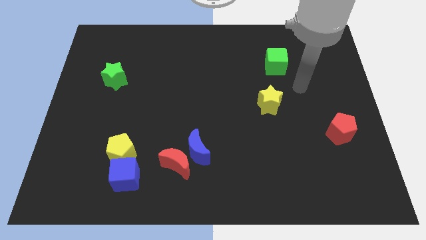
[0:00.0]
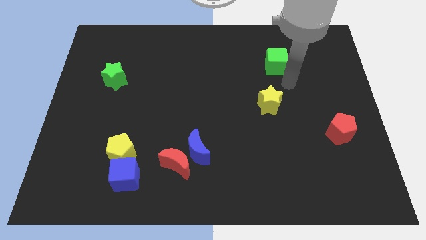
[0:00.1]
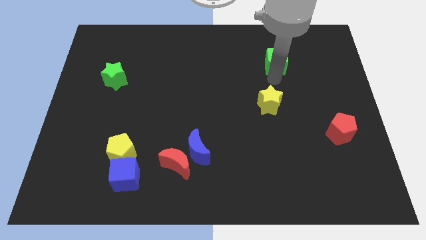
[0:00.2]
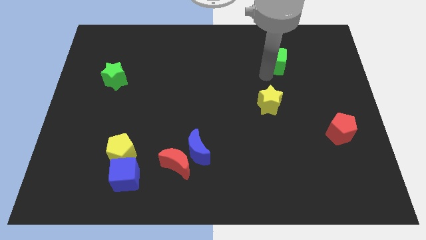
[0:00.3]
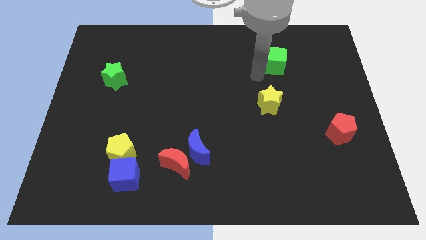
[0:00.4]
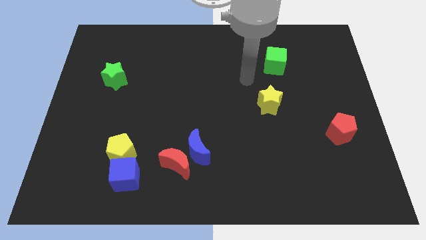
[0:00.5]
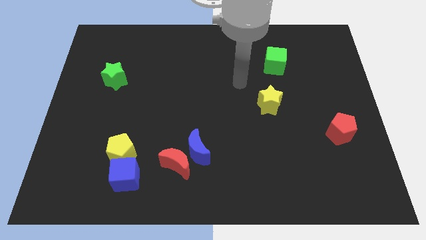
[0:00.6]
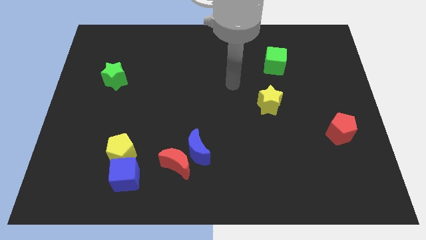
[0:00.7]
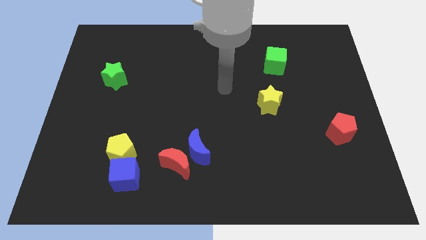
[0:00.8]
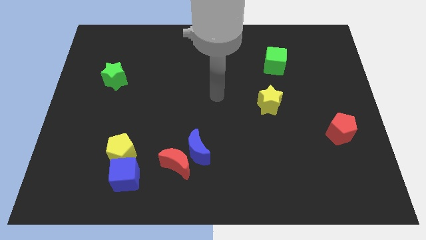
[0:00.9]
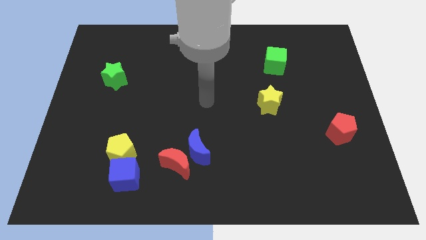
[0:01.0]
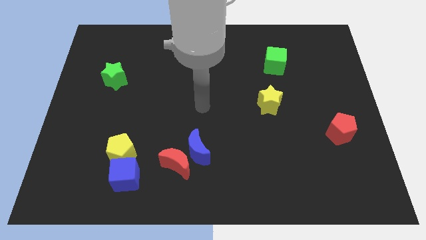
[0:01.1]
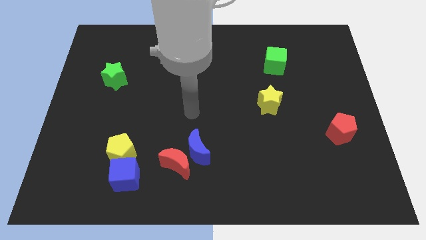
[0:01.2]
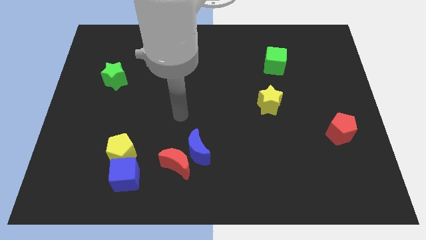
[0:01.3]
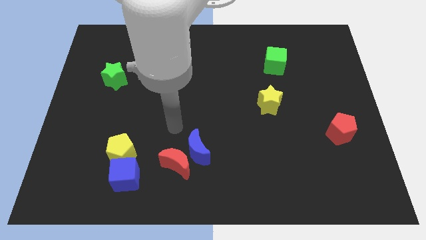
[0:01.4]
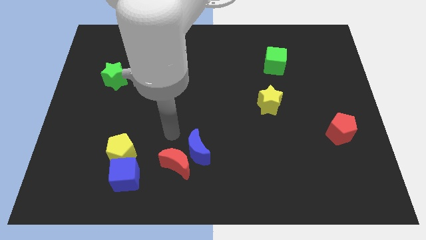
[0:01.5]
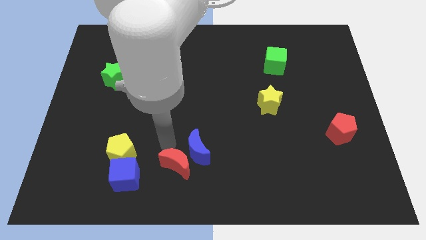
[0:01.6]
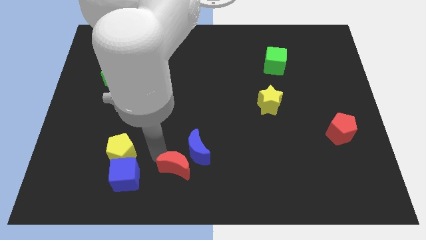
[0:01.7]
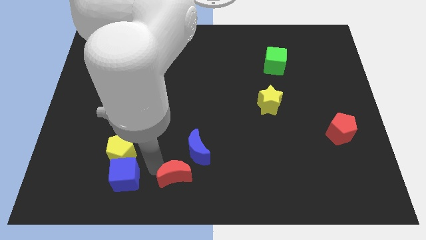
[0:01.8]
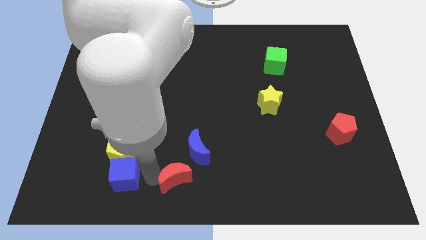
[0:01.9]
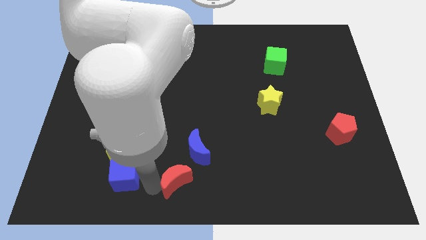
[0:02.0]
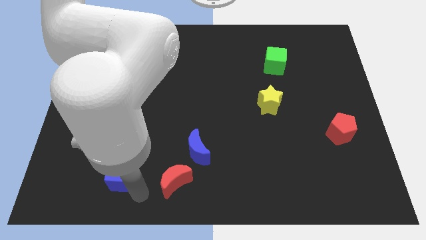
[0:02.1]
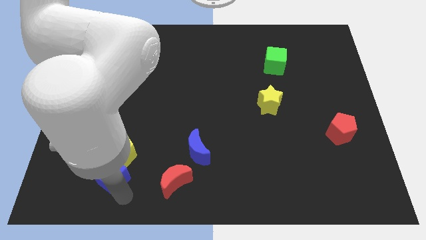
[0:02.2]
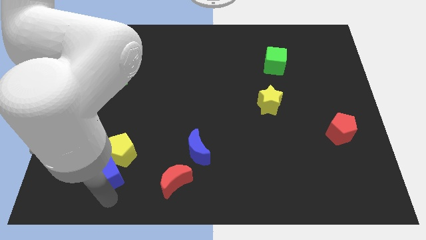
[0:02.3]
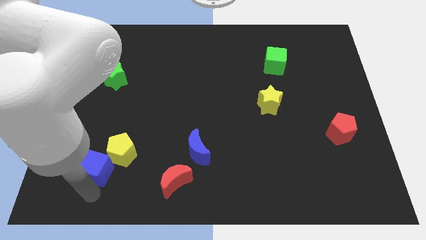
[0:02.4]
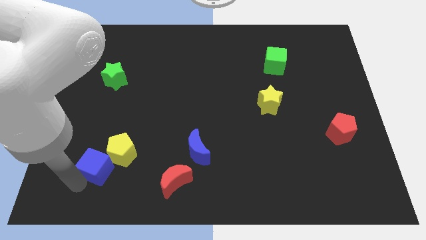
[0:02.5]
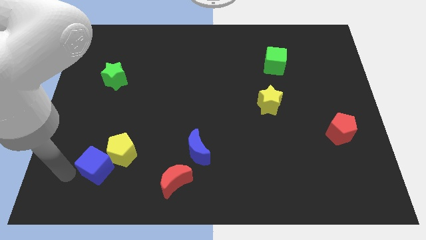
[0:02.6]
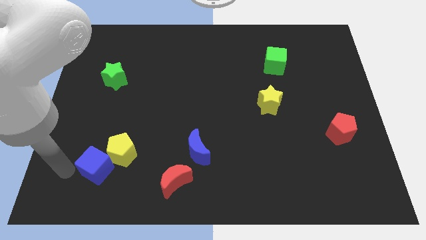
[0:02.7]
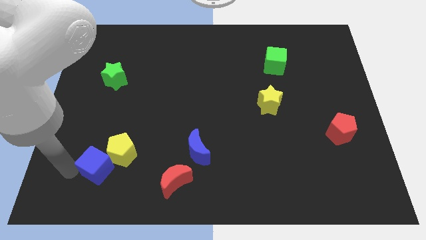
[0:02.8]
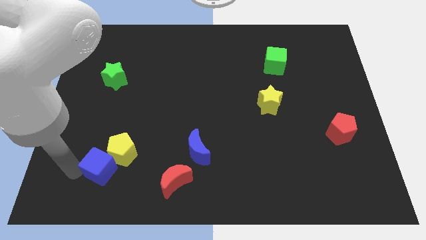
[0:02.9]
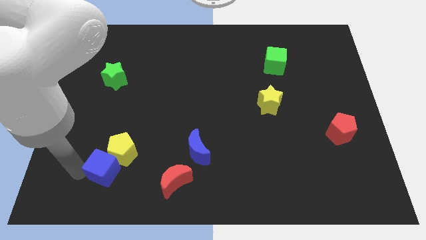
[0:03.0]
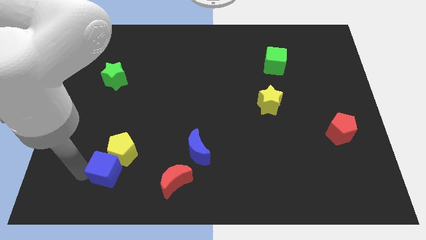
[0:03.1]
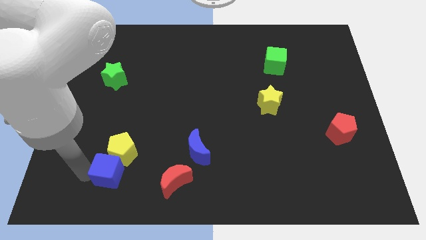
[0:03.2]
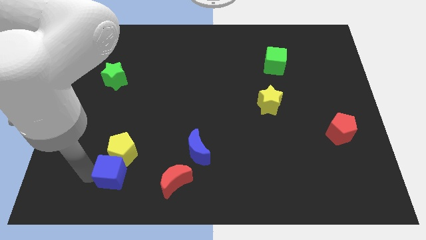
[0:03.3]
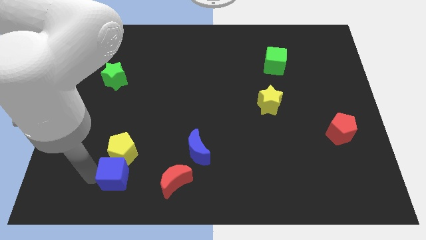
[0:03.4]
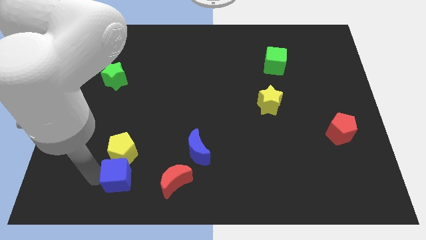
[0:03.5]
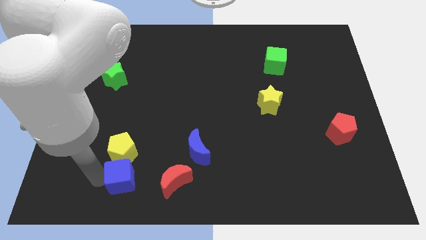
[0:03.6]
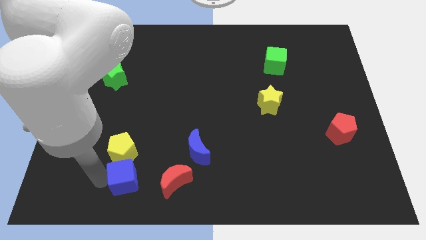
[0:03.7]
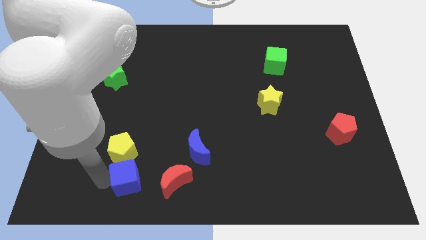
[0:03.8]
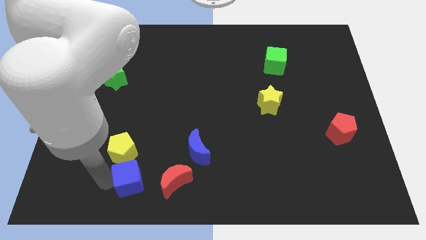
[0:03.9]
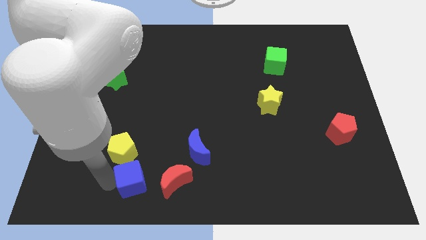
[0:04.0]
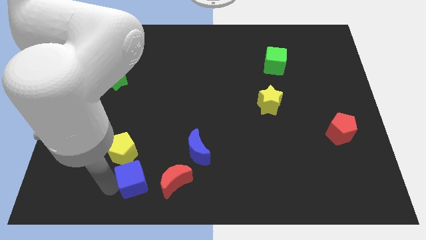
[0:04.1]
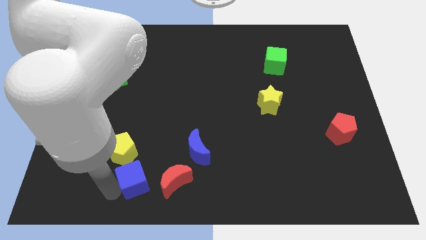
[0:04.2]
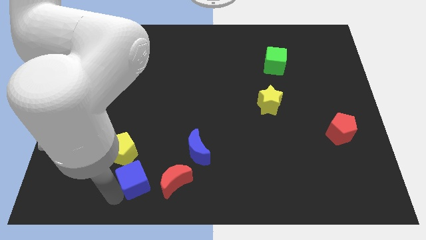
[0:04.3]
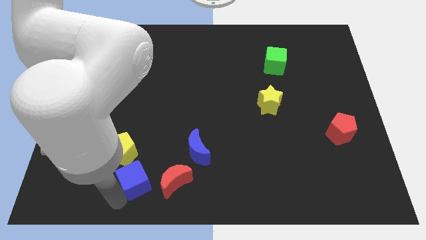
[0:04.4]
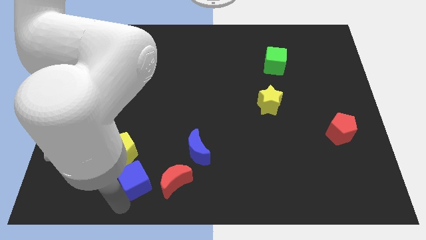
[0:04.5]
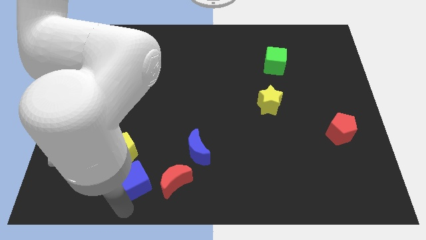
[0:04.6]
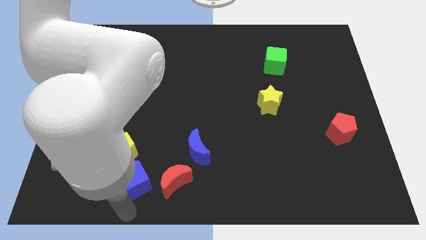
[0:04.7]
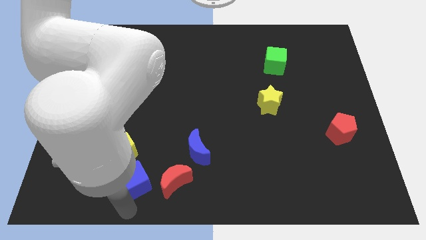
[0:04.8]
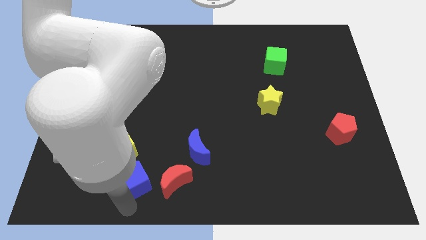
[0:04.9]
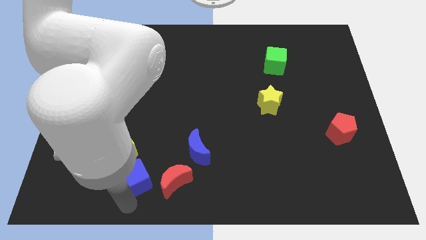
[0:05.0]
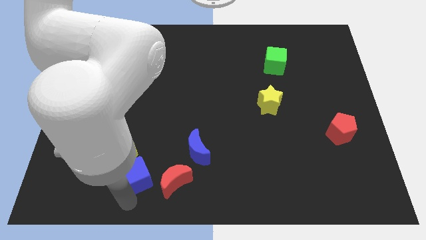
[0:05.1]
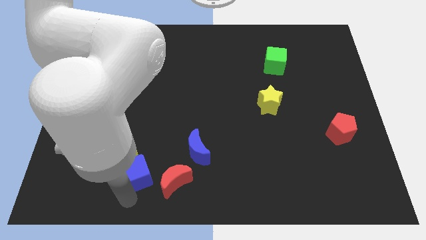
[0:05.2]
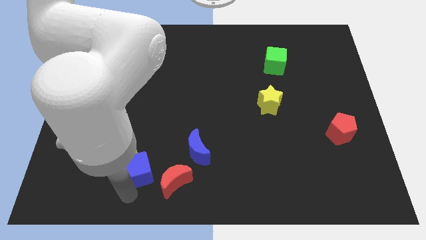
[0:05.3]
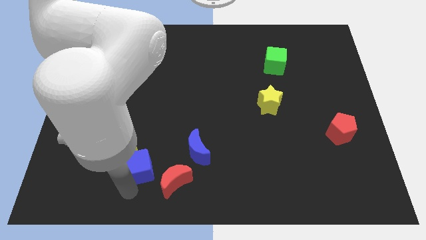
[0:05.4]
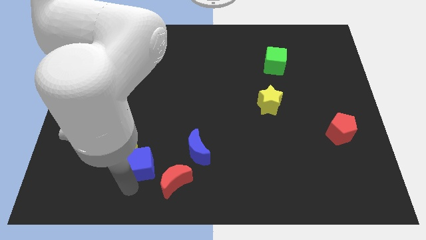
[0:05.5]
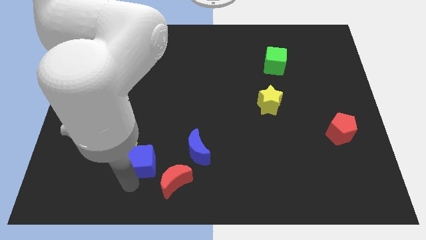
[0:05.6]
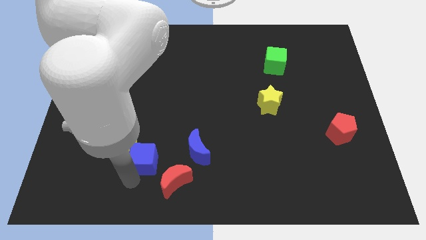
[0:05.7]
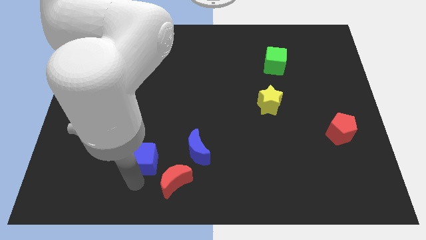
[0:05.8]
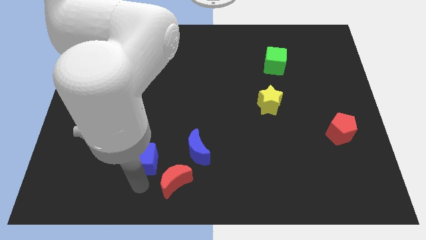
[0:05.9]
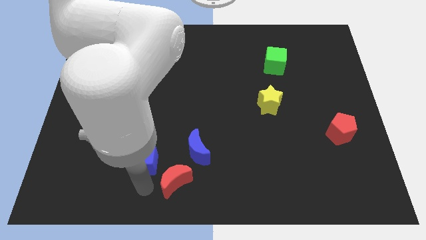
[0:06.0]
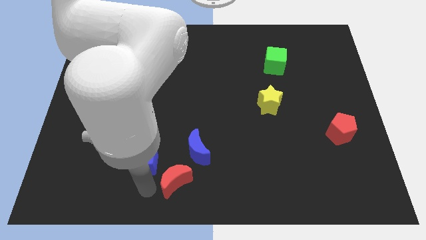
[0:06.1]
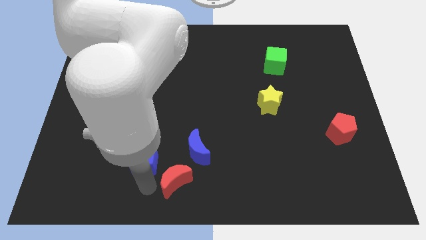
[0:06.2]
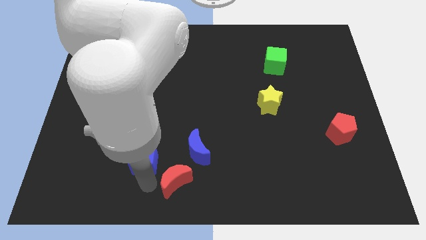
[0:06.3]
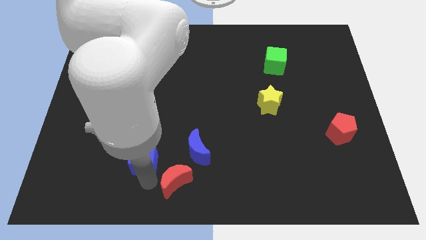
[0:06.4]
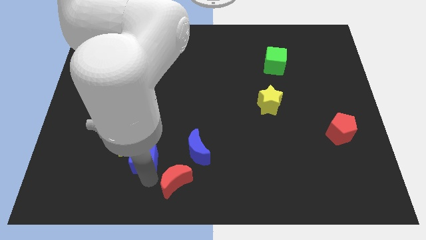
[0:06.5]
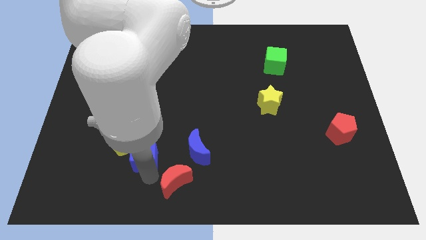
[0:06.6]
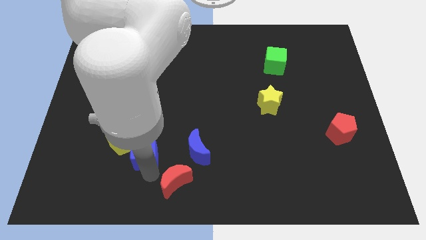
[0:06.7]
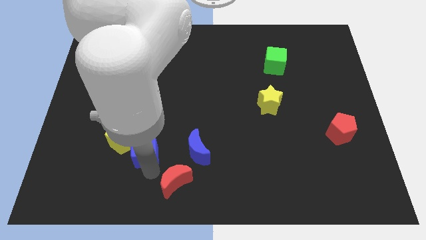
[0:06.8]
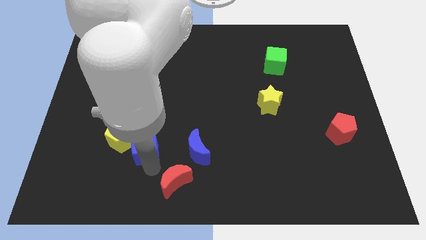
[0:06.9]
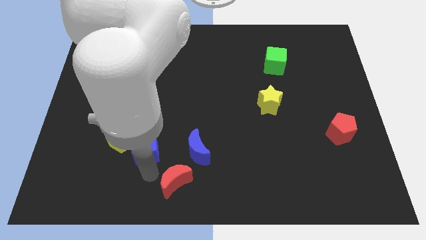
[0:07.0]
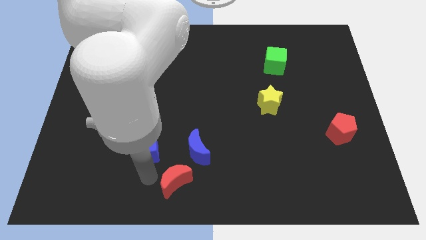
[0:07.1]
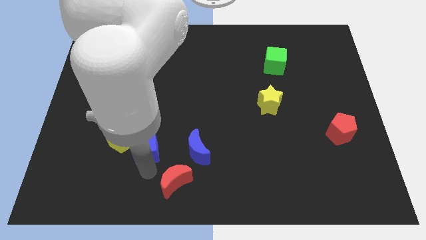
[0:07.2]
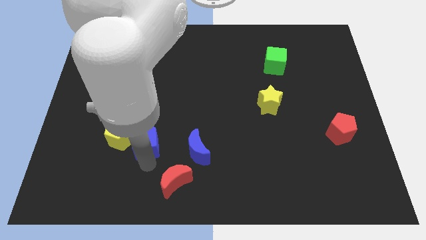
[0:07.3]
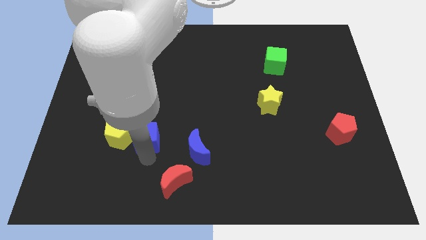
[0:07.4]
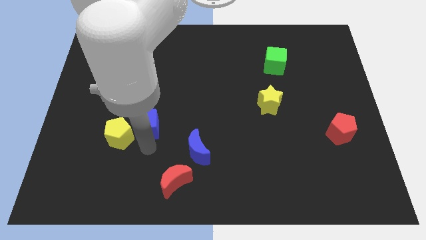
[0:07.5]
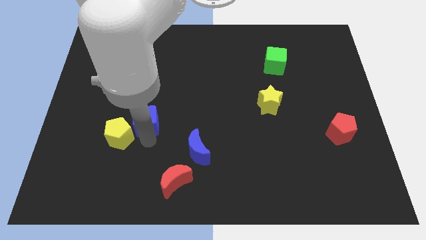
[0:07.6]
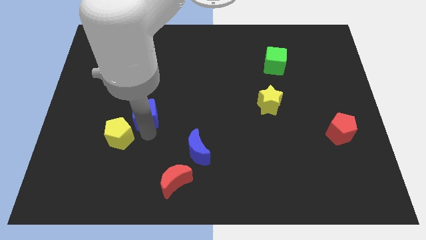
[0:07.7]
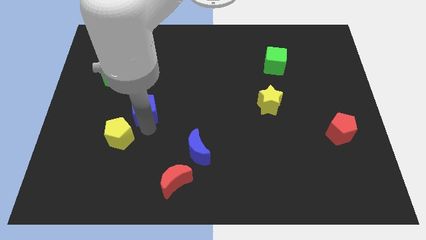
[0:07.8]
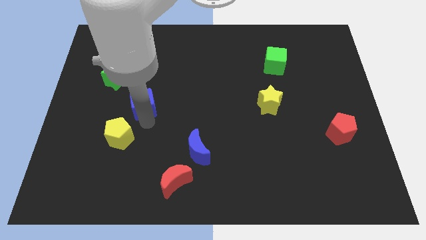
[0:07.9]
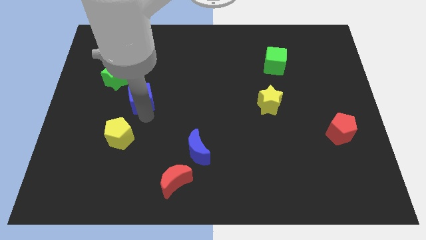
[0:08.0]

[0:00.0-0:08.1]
slide the blue cube upwards
